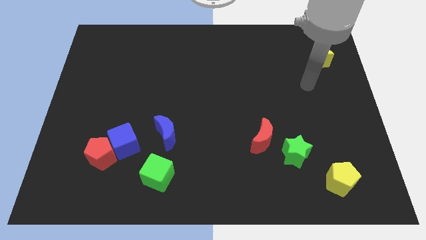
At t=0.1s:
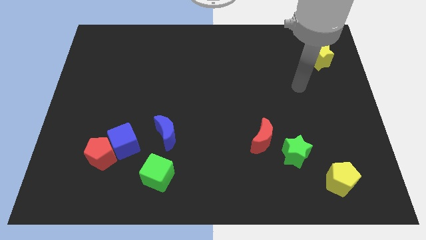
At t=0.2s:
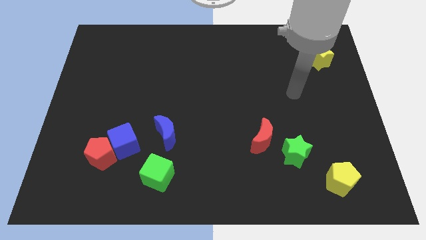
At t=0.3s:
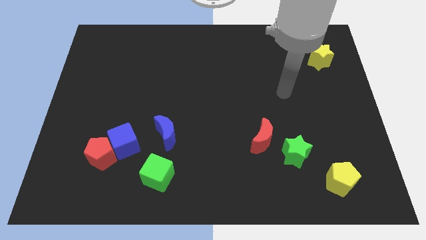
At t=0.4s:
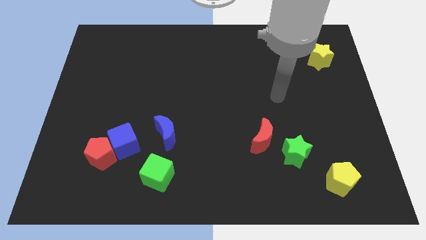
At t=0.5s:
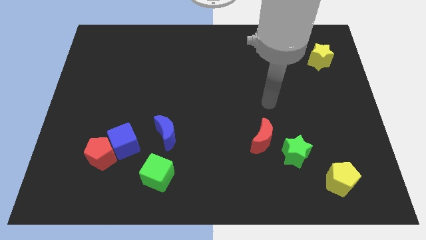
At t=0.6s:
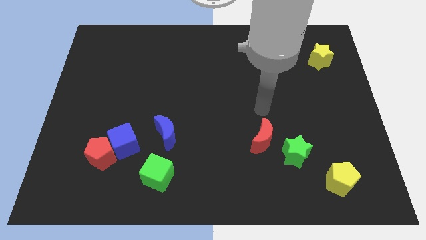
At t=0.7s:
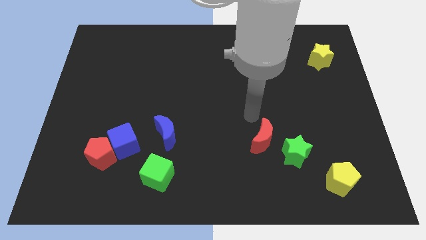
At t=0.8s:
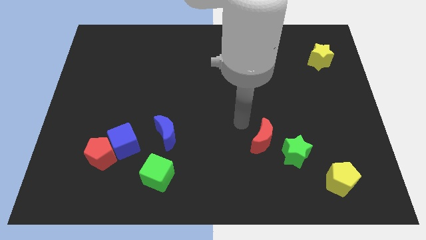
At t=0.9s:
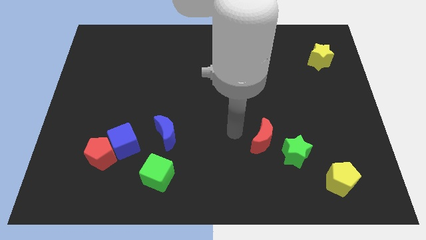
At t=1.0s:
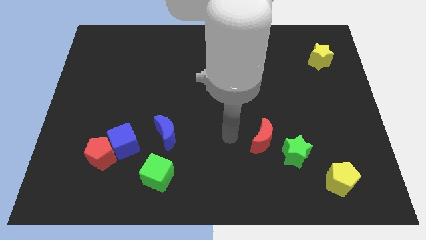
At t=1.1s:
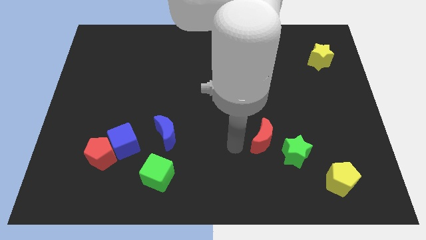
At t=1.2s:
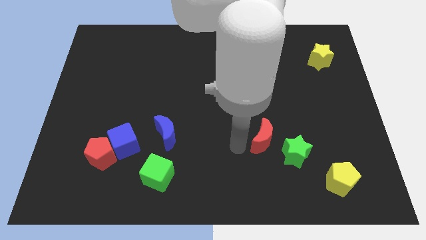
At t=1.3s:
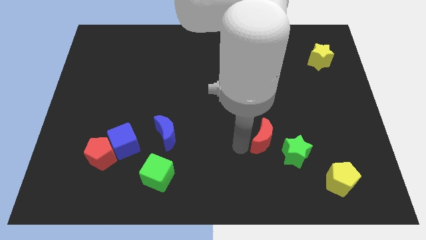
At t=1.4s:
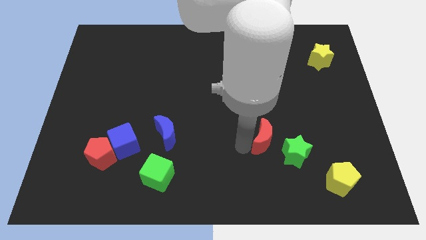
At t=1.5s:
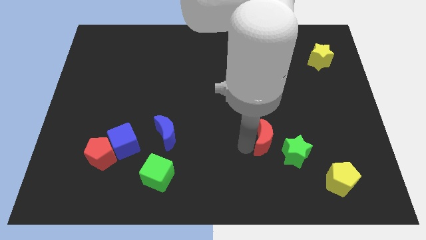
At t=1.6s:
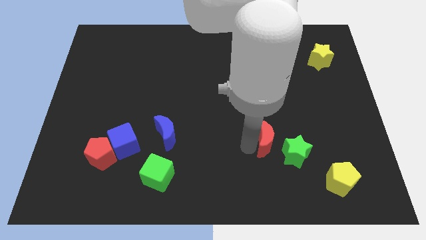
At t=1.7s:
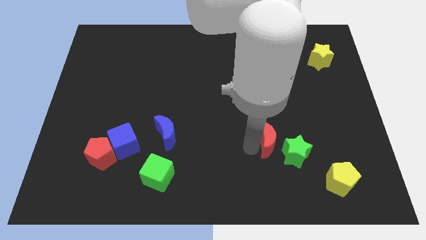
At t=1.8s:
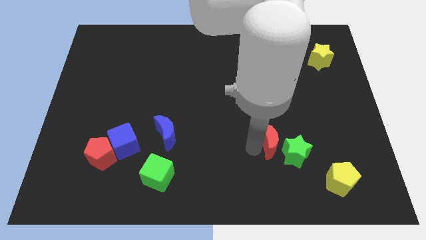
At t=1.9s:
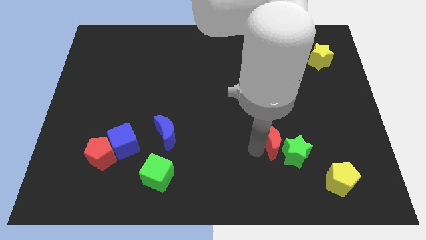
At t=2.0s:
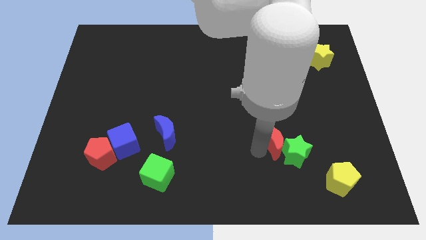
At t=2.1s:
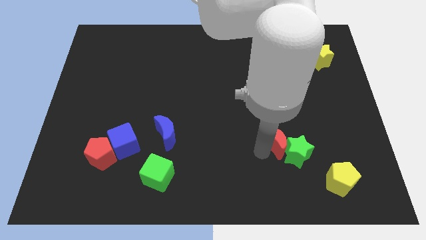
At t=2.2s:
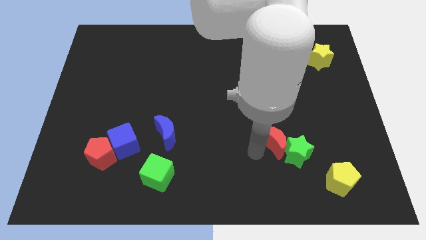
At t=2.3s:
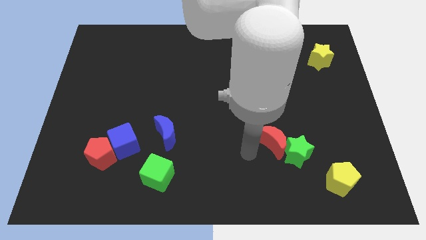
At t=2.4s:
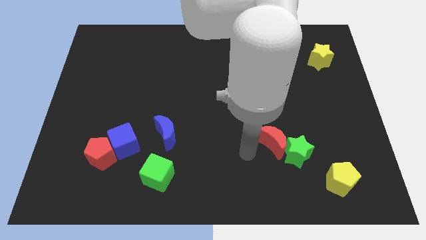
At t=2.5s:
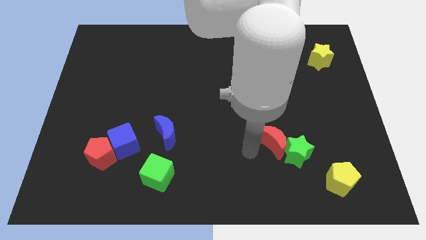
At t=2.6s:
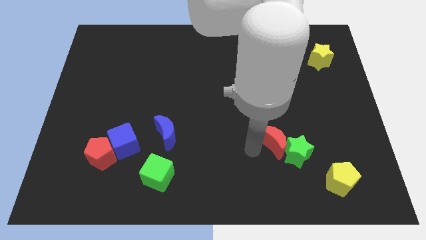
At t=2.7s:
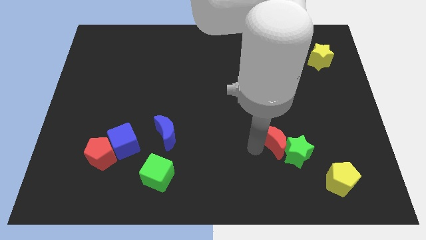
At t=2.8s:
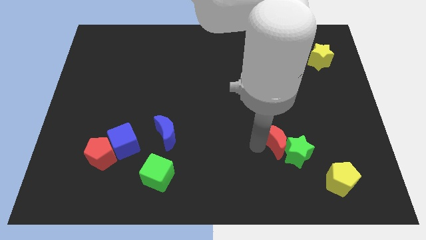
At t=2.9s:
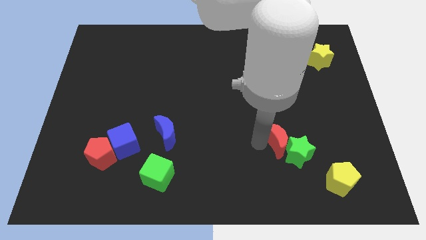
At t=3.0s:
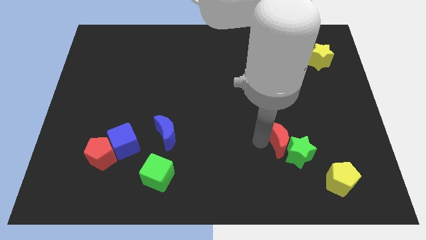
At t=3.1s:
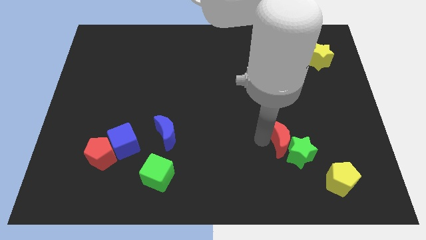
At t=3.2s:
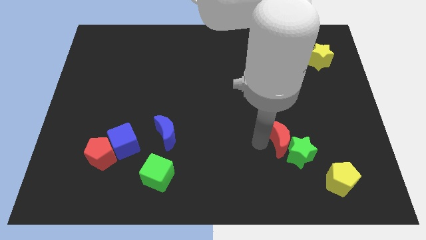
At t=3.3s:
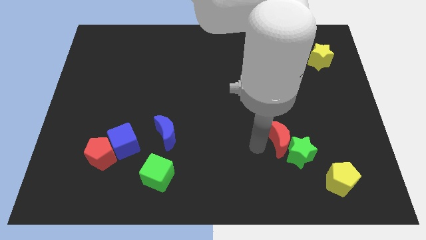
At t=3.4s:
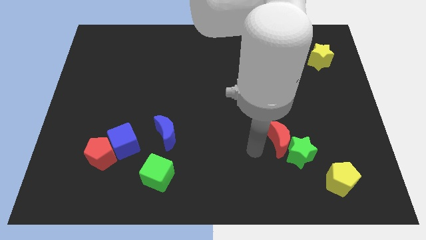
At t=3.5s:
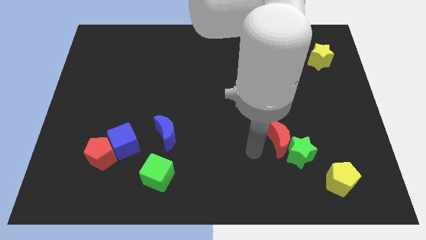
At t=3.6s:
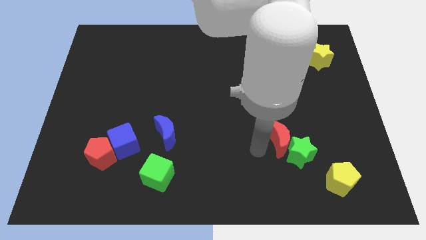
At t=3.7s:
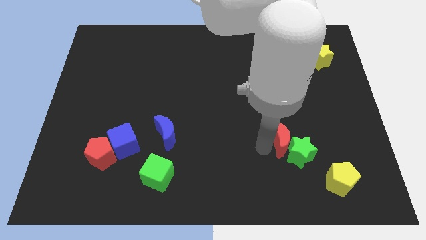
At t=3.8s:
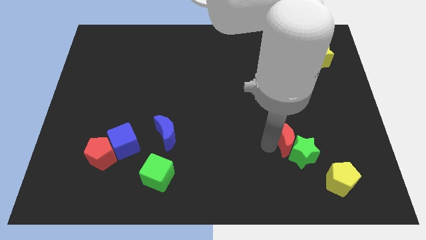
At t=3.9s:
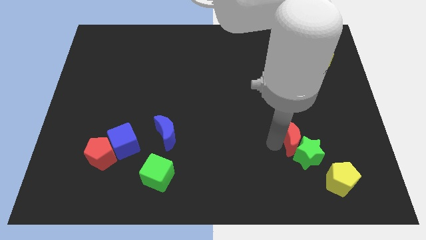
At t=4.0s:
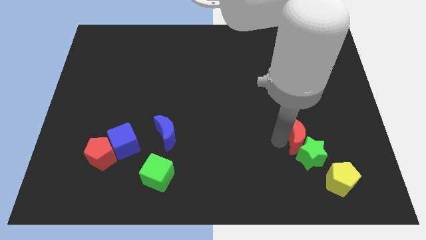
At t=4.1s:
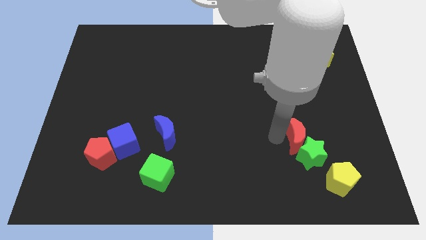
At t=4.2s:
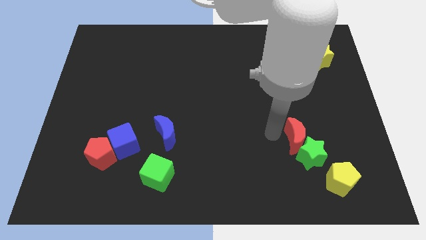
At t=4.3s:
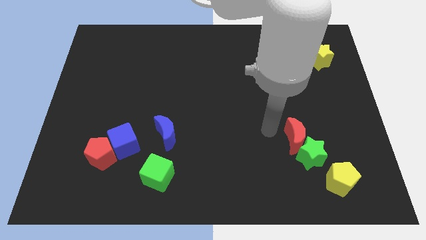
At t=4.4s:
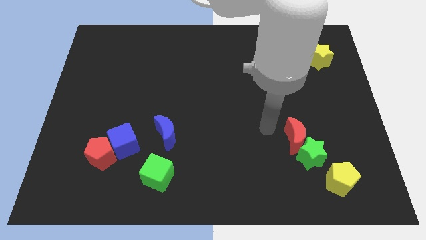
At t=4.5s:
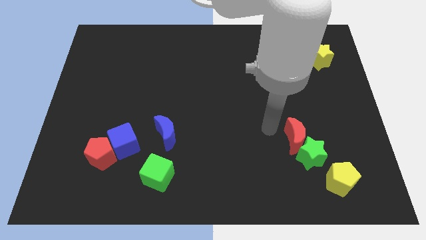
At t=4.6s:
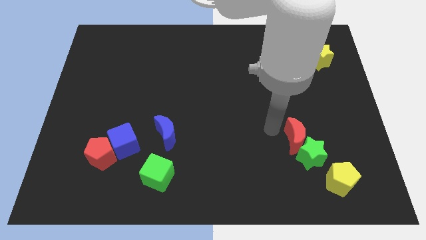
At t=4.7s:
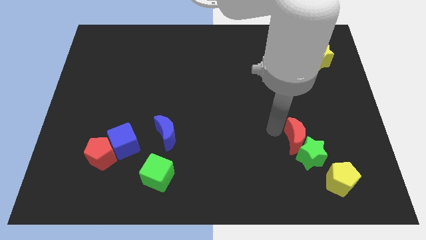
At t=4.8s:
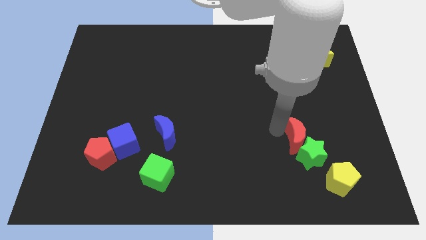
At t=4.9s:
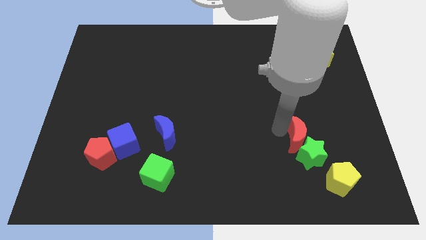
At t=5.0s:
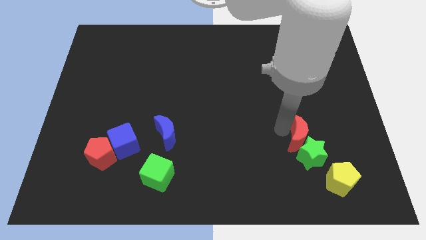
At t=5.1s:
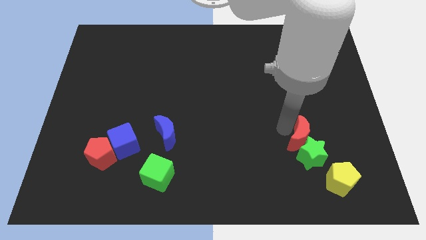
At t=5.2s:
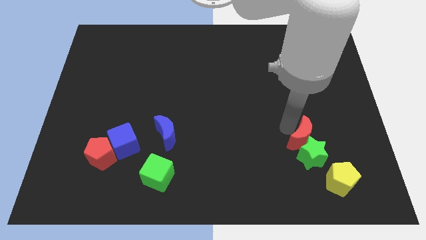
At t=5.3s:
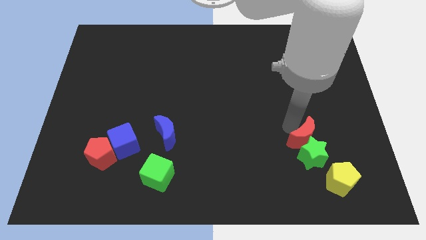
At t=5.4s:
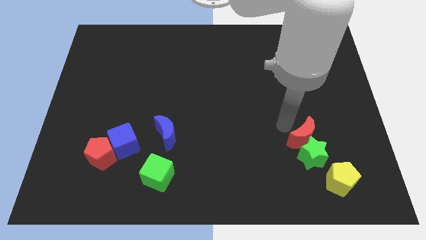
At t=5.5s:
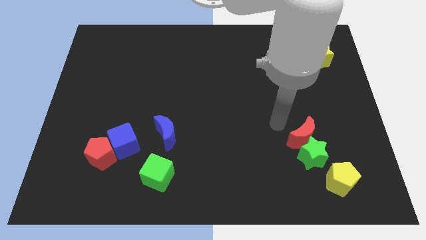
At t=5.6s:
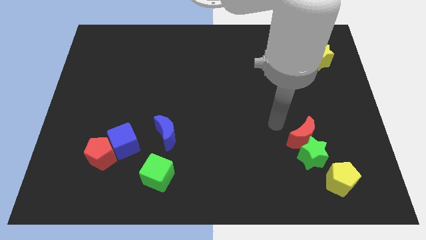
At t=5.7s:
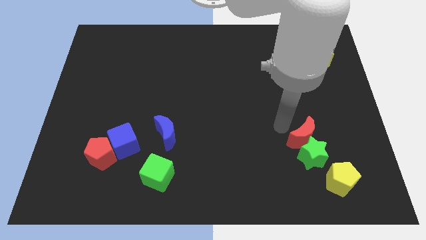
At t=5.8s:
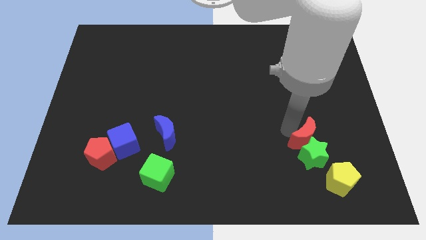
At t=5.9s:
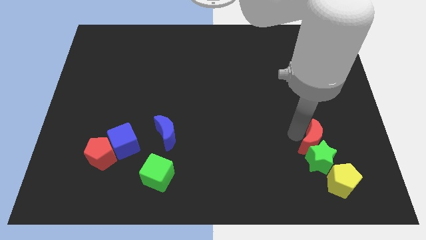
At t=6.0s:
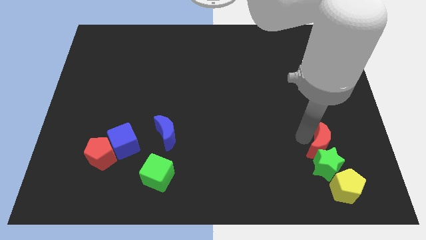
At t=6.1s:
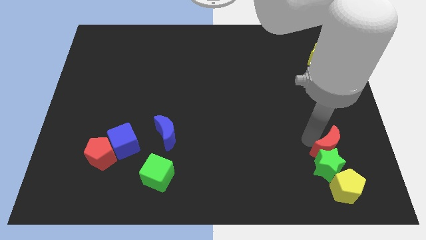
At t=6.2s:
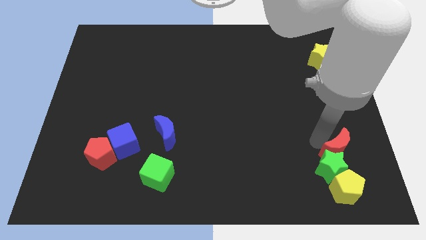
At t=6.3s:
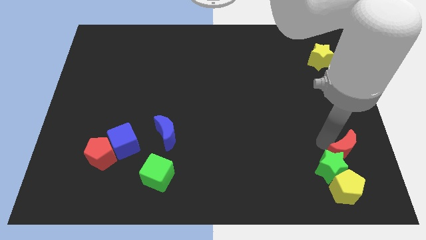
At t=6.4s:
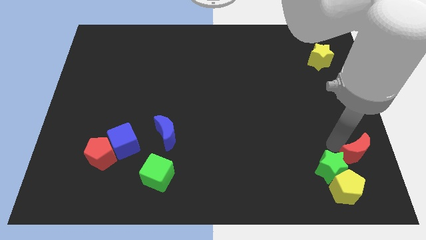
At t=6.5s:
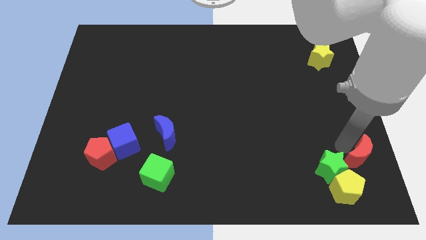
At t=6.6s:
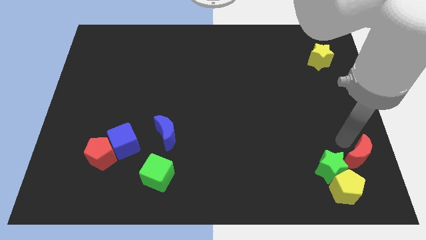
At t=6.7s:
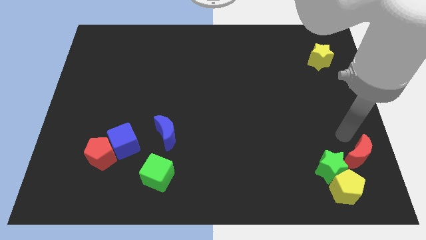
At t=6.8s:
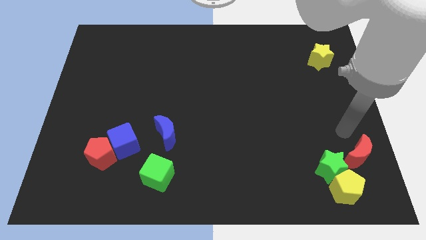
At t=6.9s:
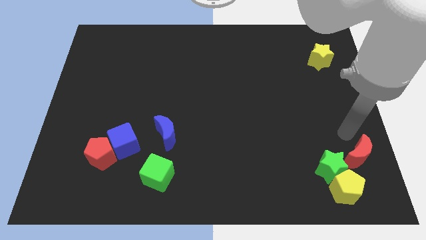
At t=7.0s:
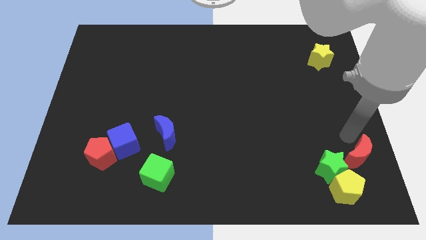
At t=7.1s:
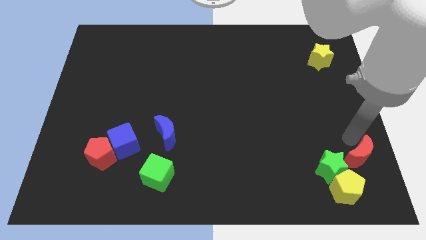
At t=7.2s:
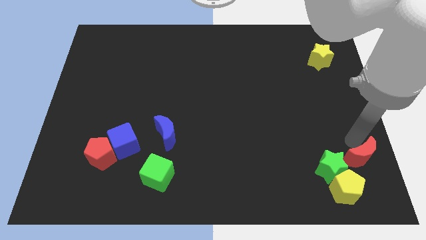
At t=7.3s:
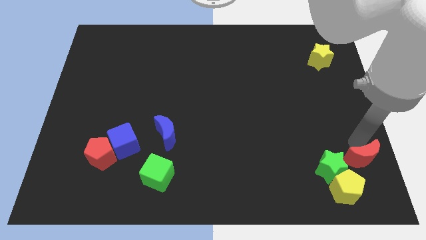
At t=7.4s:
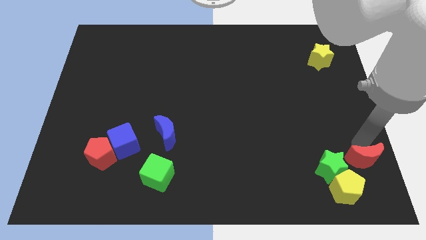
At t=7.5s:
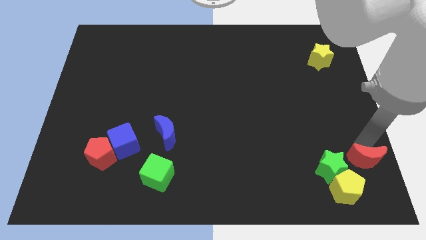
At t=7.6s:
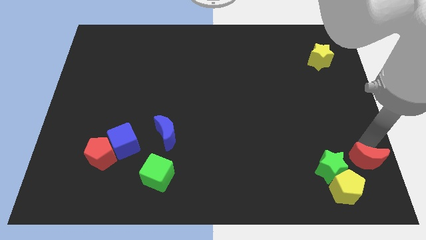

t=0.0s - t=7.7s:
slide the red moon to the bottom right corner
